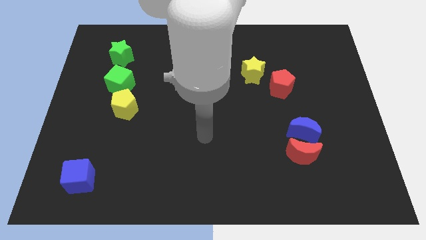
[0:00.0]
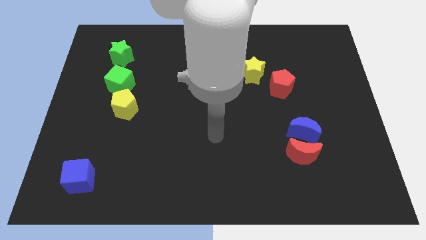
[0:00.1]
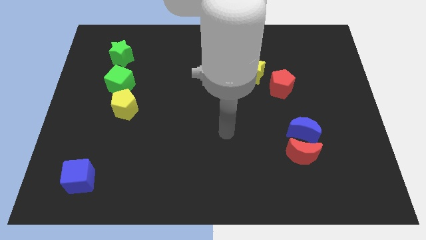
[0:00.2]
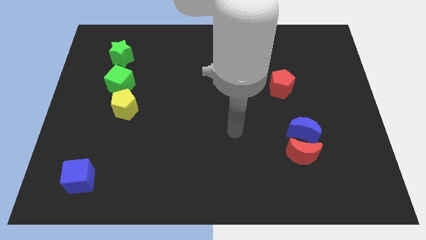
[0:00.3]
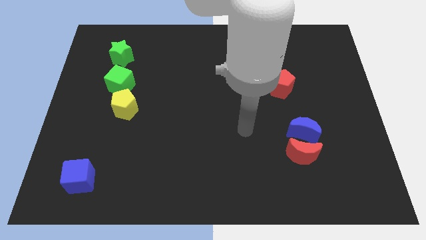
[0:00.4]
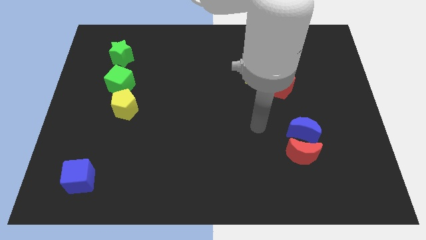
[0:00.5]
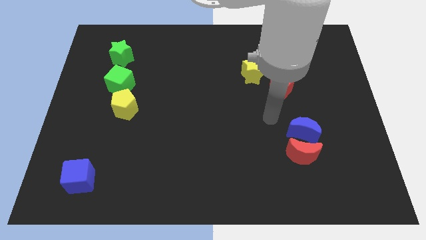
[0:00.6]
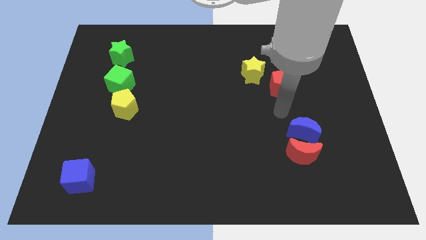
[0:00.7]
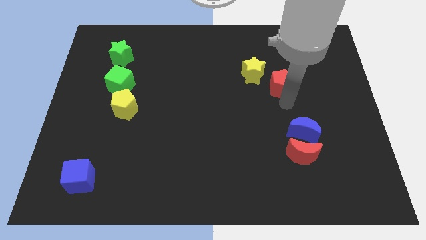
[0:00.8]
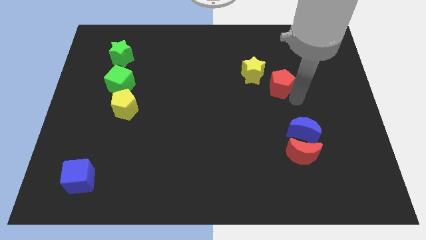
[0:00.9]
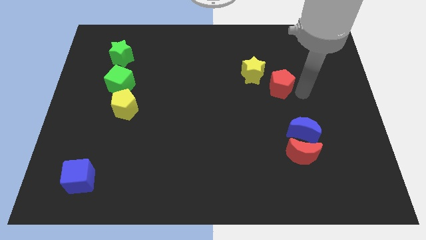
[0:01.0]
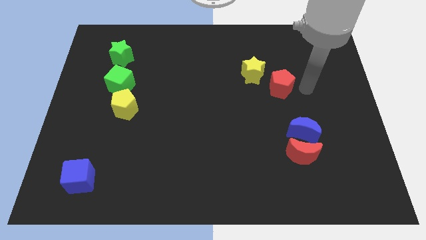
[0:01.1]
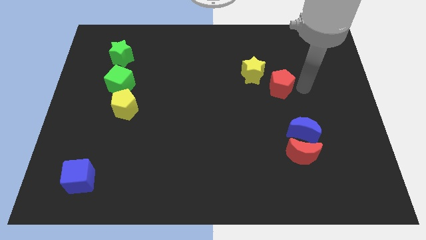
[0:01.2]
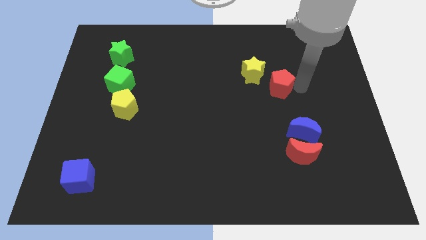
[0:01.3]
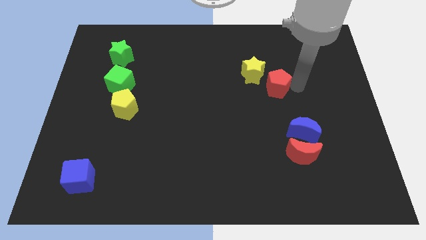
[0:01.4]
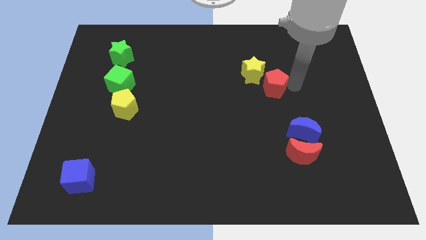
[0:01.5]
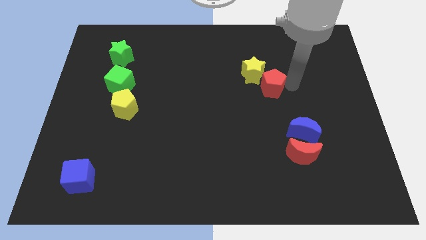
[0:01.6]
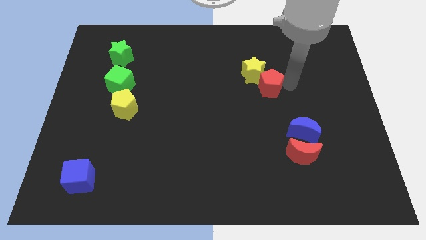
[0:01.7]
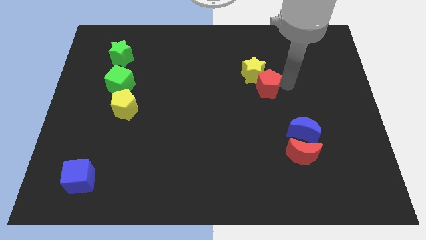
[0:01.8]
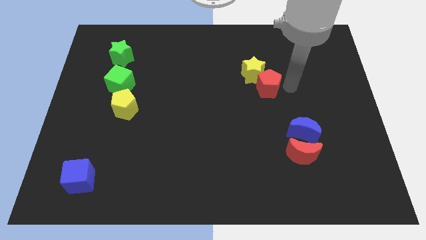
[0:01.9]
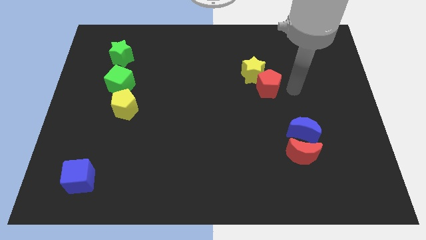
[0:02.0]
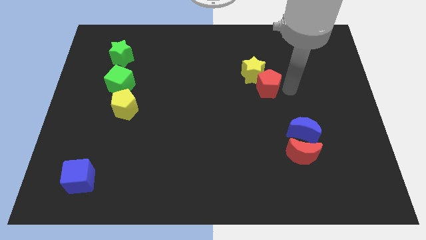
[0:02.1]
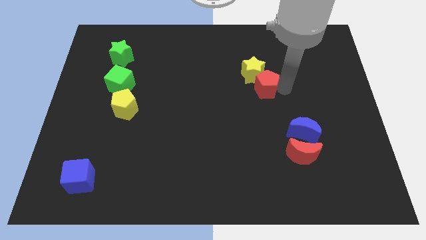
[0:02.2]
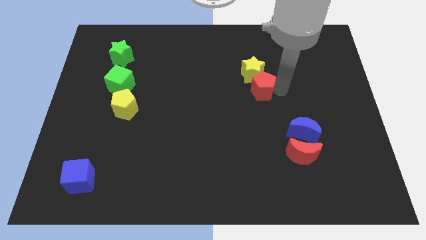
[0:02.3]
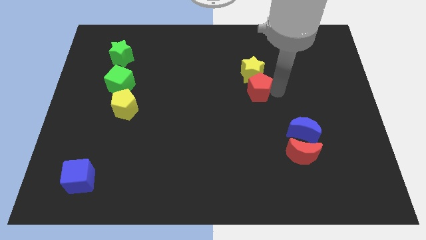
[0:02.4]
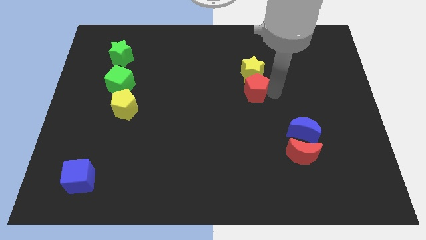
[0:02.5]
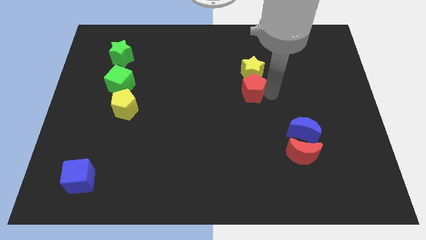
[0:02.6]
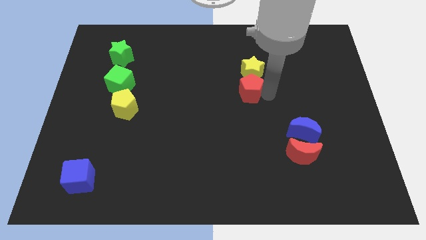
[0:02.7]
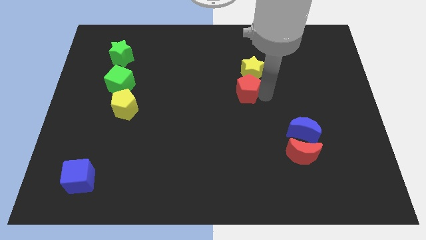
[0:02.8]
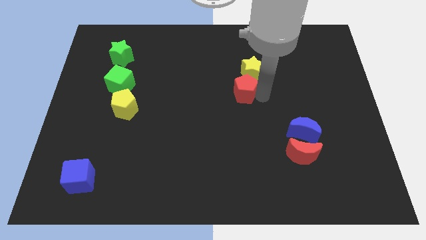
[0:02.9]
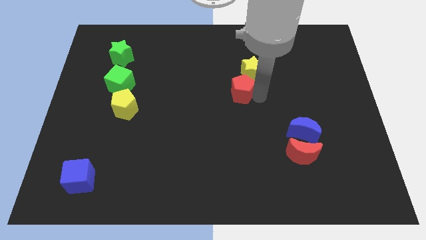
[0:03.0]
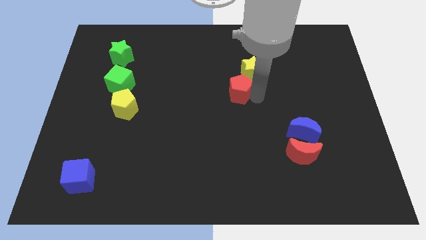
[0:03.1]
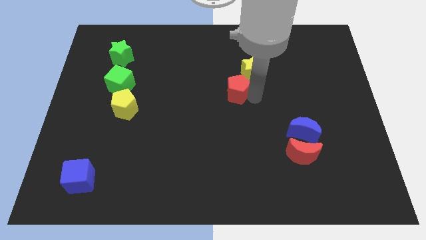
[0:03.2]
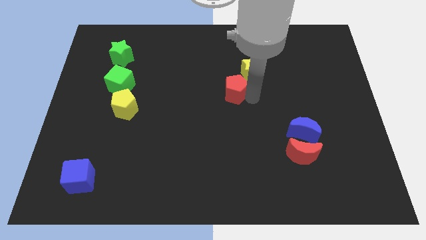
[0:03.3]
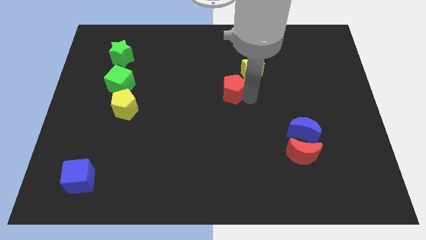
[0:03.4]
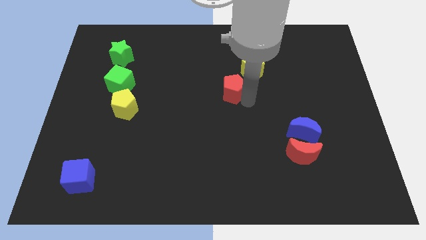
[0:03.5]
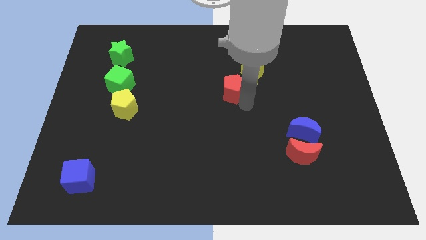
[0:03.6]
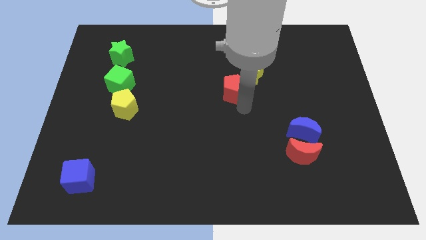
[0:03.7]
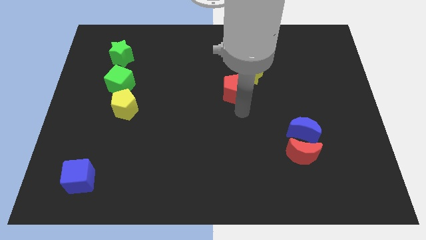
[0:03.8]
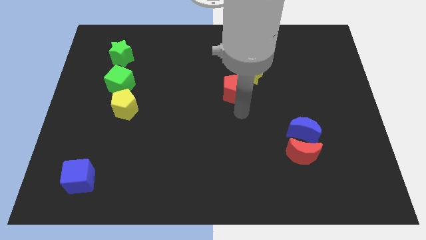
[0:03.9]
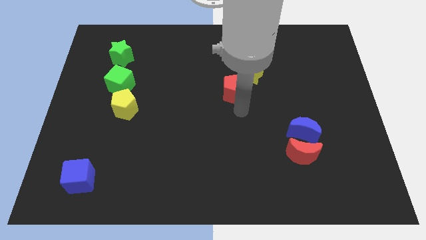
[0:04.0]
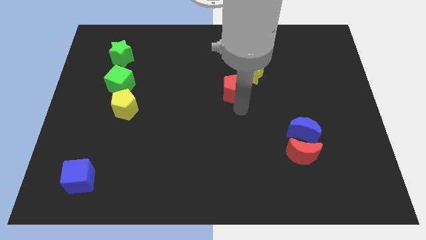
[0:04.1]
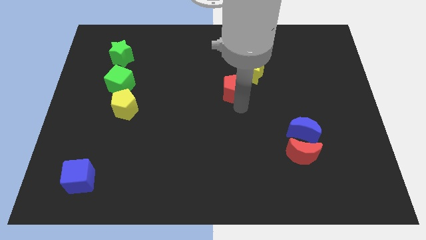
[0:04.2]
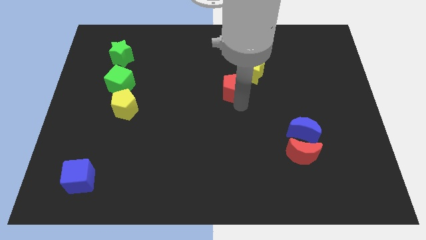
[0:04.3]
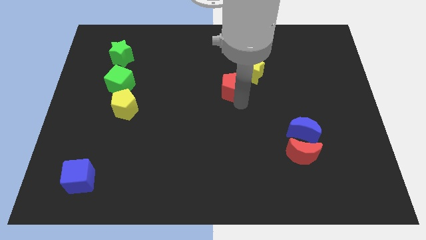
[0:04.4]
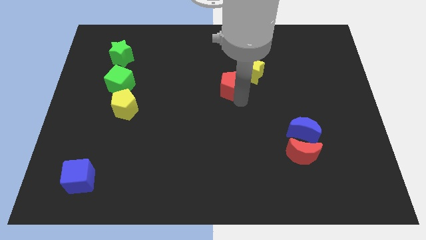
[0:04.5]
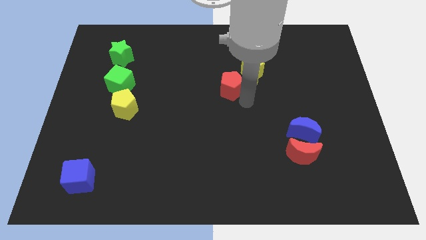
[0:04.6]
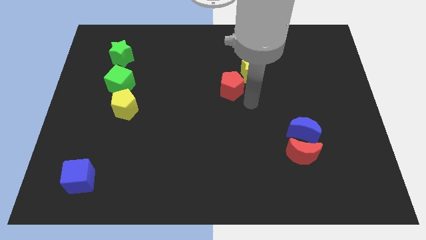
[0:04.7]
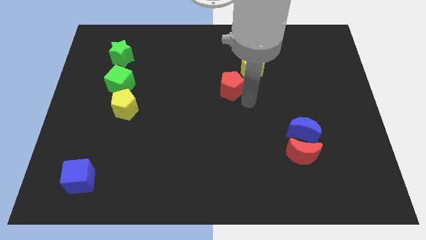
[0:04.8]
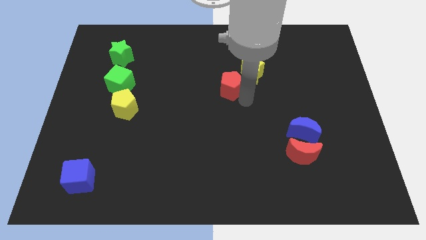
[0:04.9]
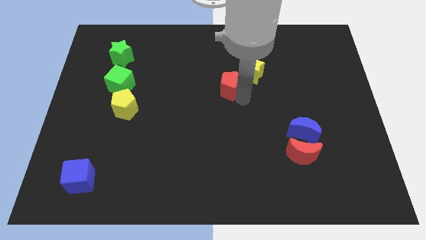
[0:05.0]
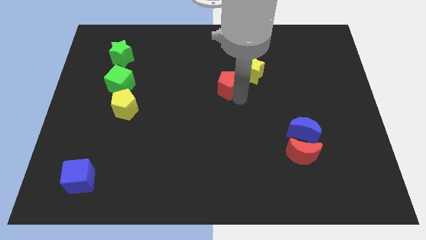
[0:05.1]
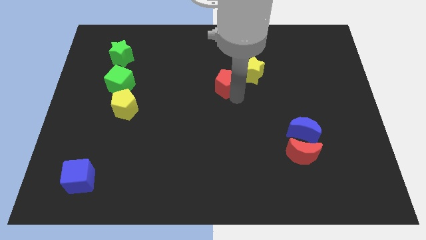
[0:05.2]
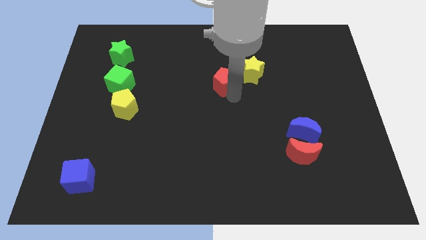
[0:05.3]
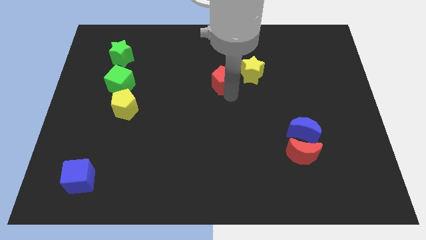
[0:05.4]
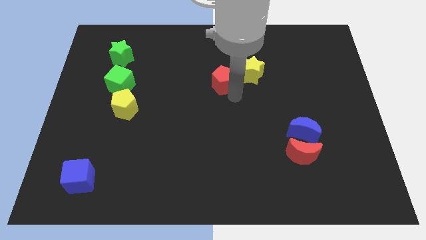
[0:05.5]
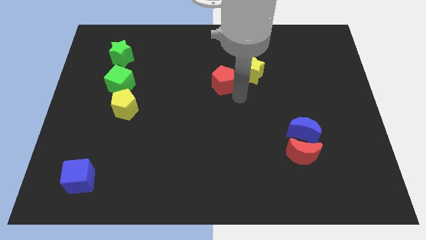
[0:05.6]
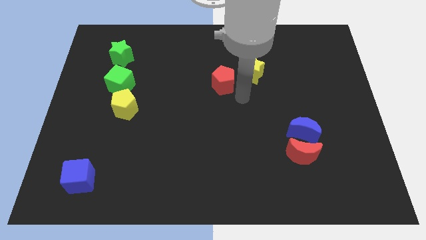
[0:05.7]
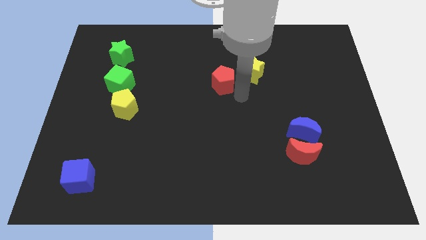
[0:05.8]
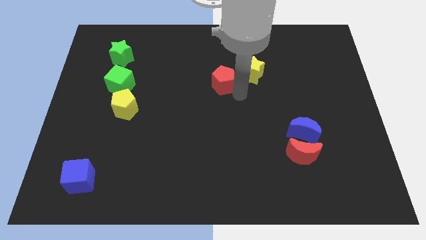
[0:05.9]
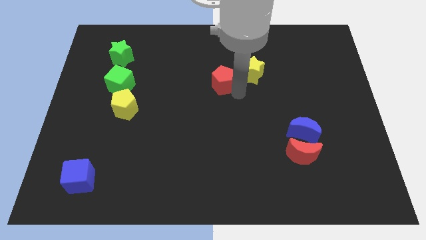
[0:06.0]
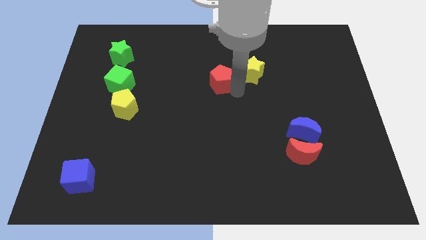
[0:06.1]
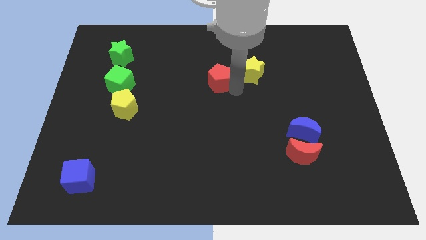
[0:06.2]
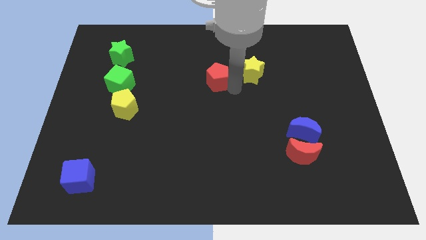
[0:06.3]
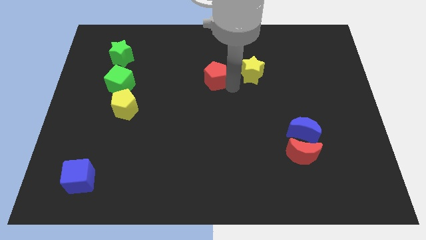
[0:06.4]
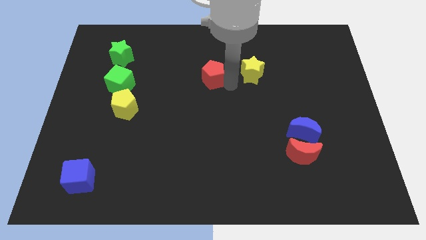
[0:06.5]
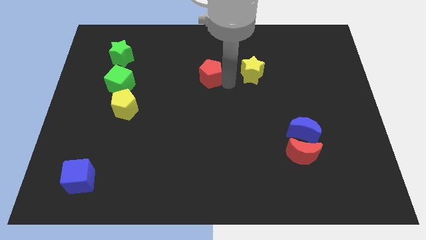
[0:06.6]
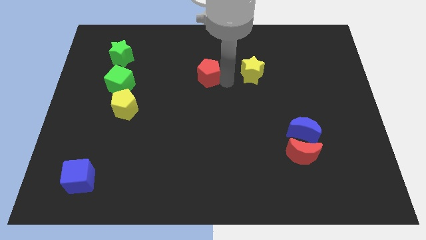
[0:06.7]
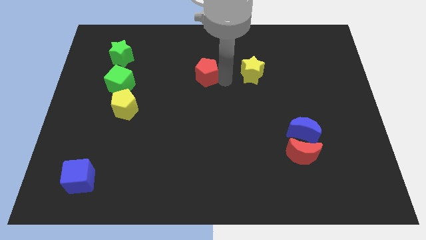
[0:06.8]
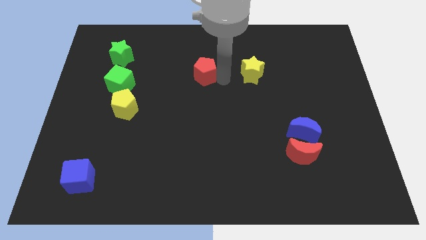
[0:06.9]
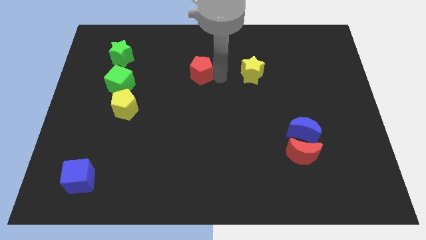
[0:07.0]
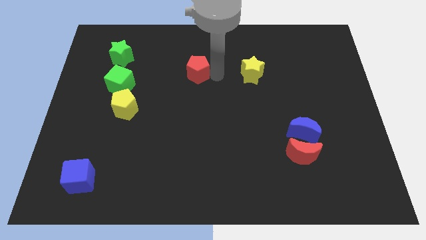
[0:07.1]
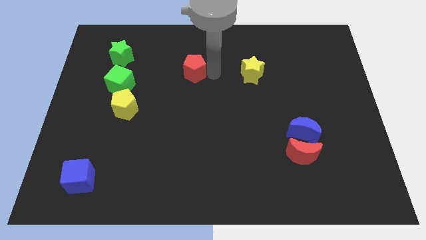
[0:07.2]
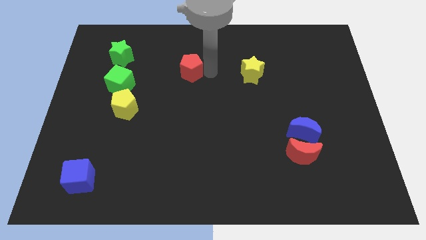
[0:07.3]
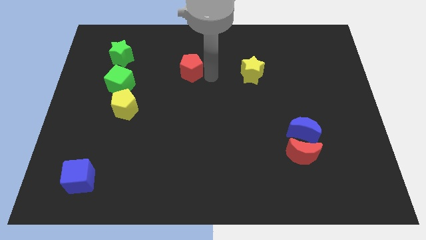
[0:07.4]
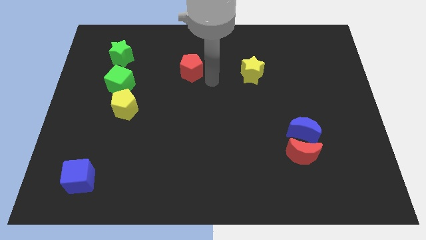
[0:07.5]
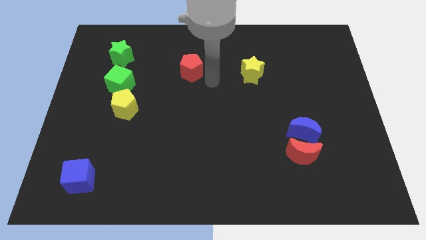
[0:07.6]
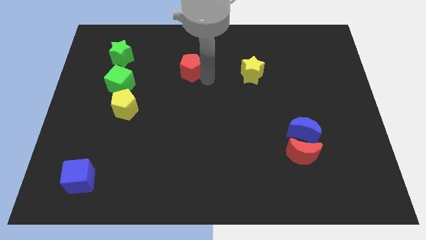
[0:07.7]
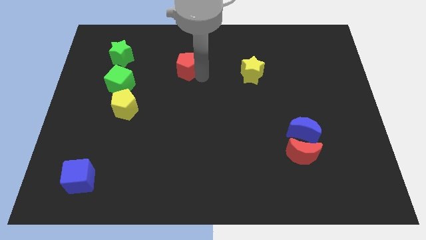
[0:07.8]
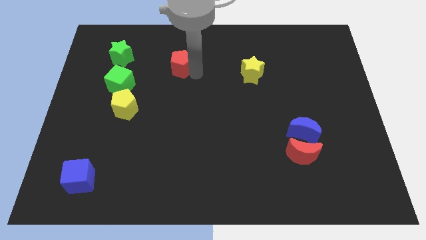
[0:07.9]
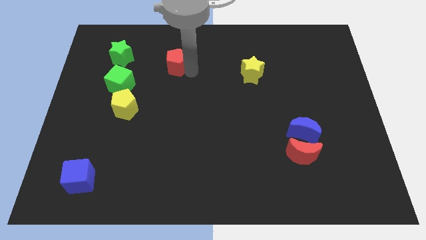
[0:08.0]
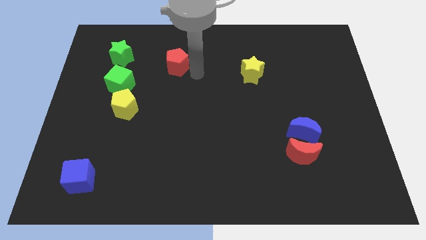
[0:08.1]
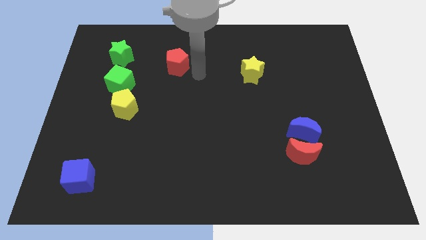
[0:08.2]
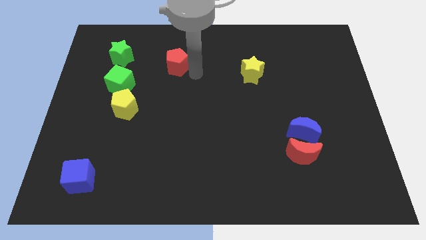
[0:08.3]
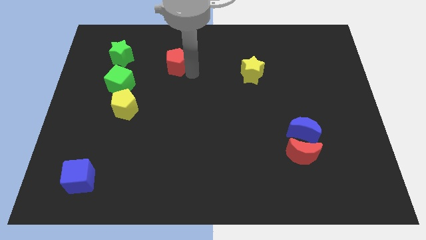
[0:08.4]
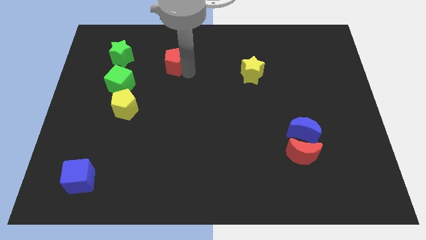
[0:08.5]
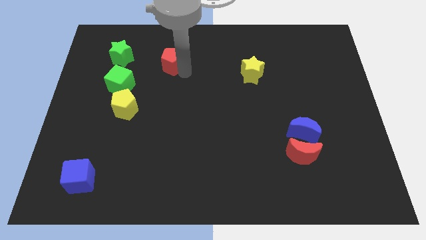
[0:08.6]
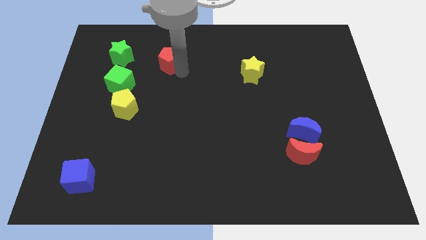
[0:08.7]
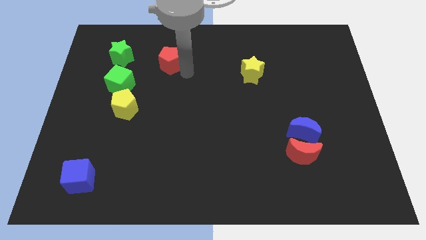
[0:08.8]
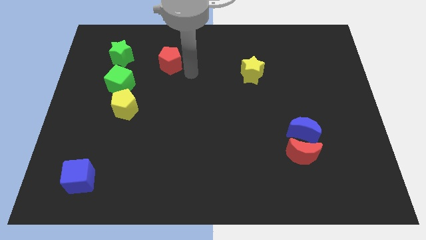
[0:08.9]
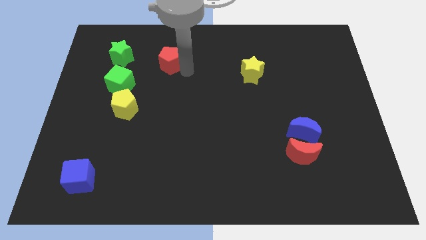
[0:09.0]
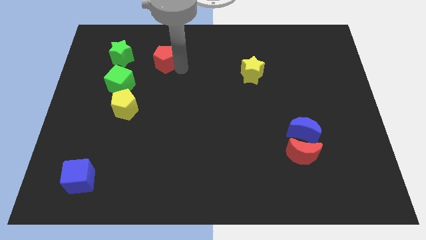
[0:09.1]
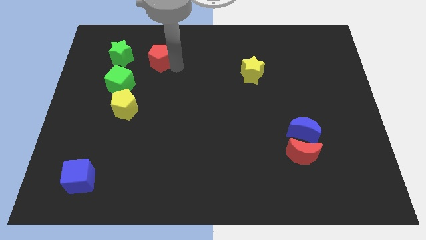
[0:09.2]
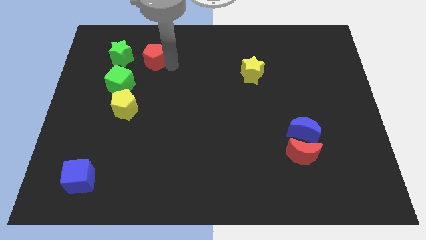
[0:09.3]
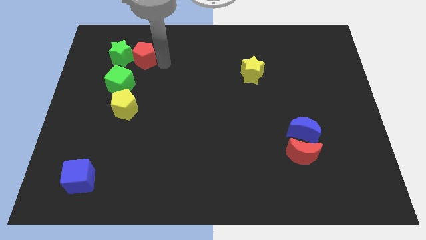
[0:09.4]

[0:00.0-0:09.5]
put the red pentagon to the top of the green cube
